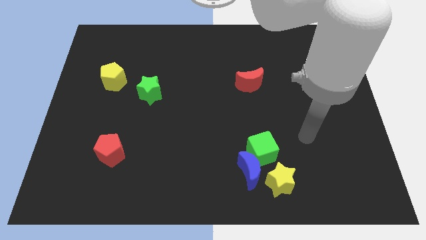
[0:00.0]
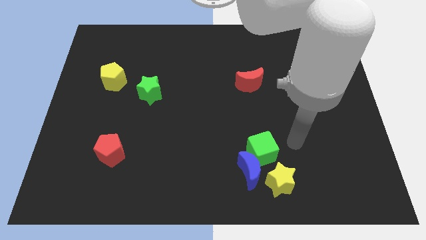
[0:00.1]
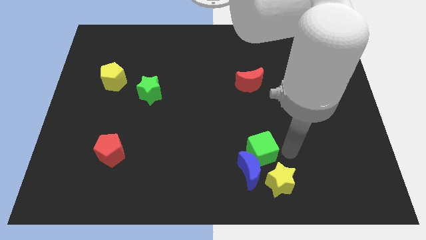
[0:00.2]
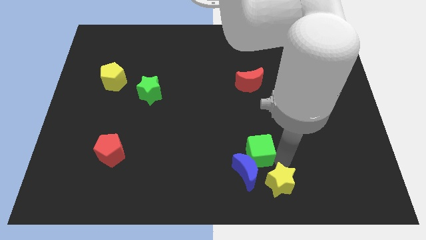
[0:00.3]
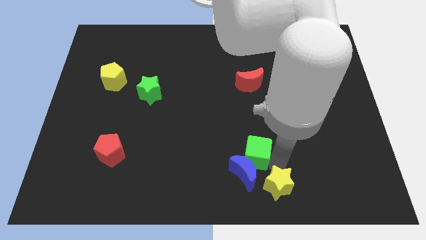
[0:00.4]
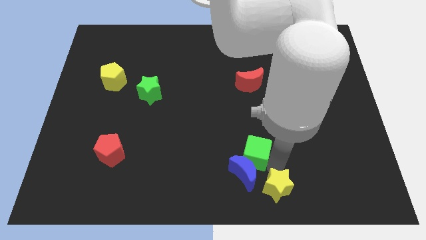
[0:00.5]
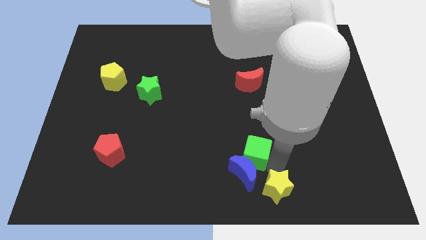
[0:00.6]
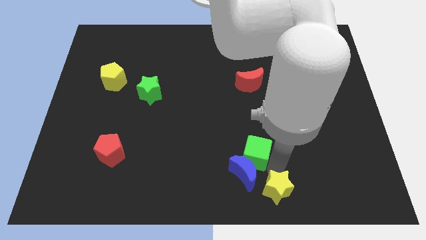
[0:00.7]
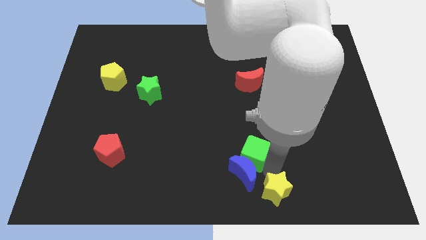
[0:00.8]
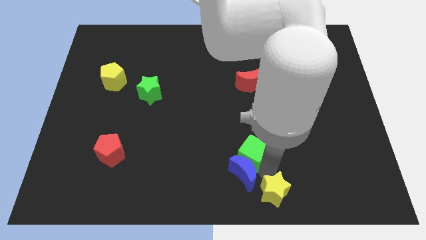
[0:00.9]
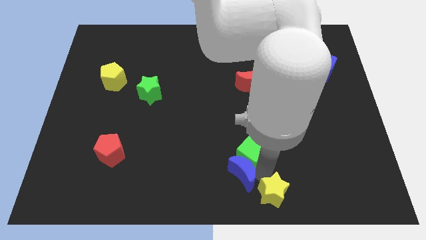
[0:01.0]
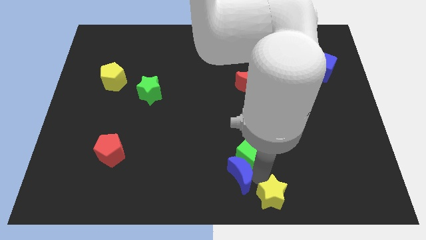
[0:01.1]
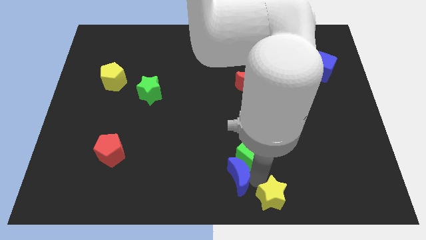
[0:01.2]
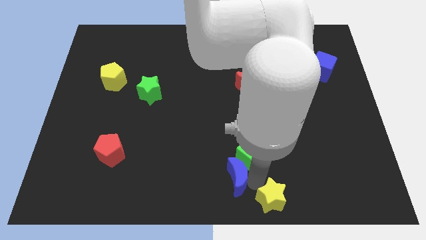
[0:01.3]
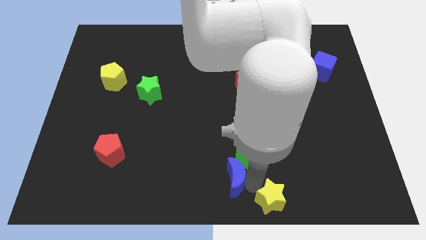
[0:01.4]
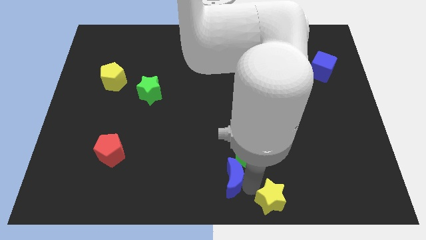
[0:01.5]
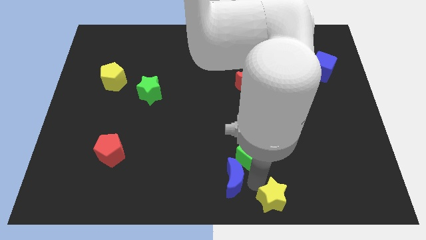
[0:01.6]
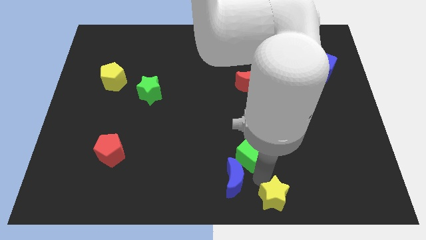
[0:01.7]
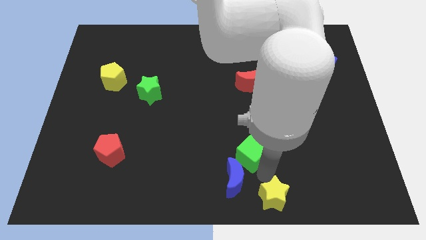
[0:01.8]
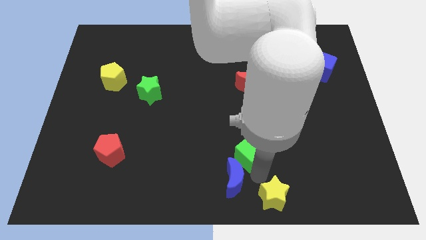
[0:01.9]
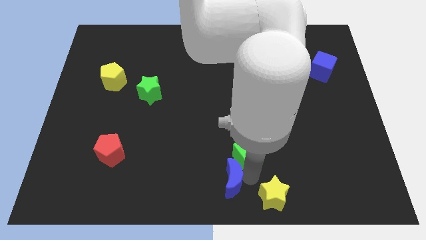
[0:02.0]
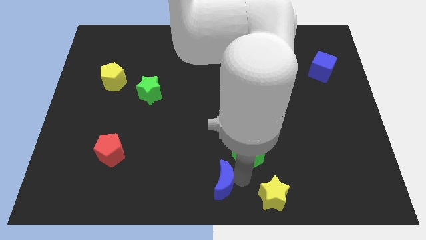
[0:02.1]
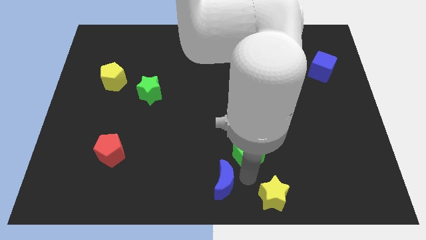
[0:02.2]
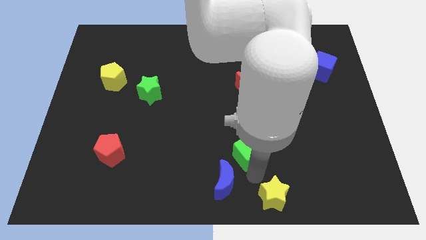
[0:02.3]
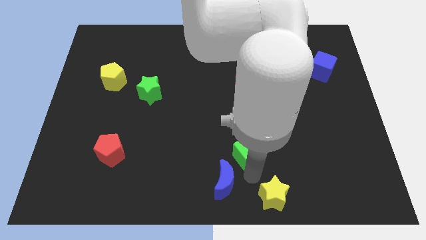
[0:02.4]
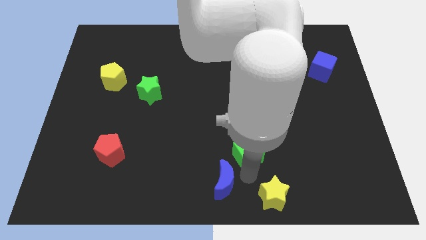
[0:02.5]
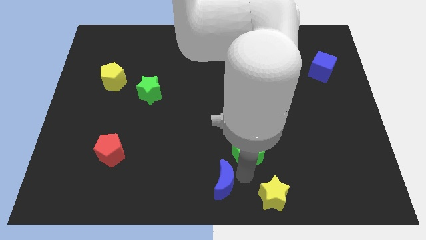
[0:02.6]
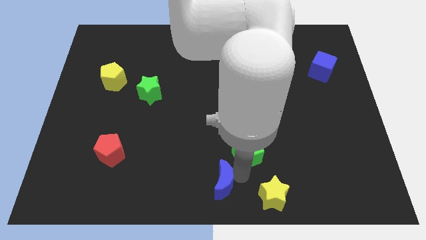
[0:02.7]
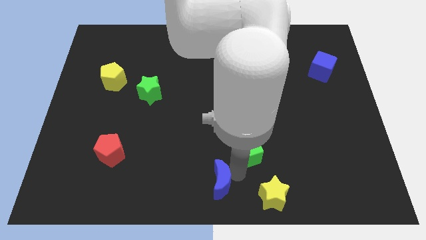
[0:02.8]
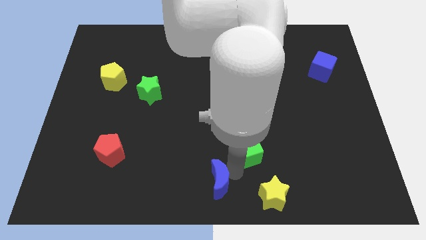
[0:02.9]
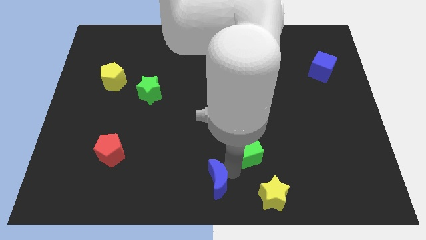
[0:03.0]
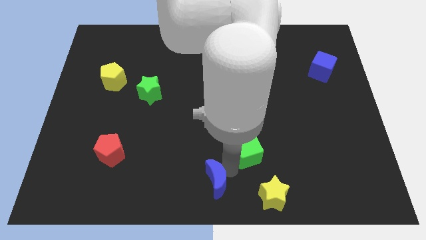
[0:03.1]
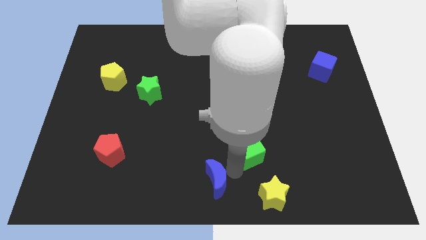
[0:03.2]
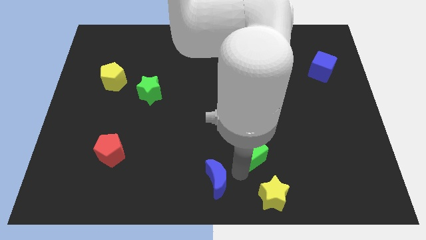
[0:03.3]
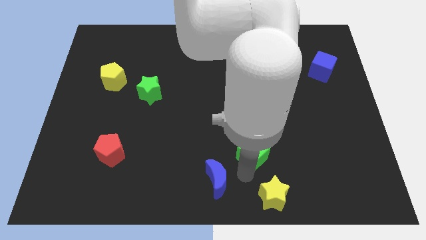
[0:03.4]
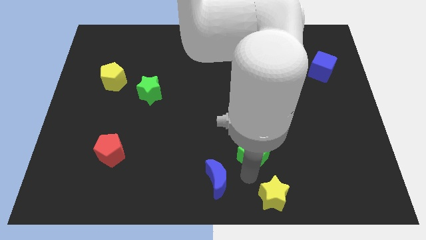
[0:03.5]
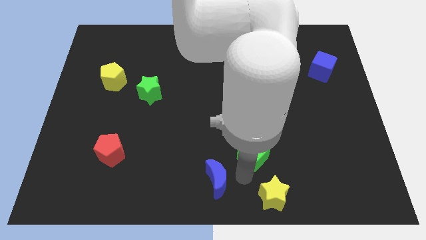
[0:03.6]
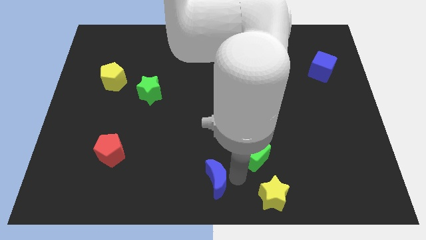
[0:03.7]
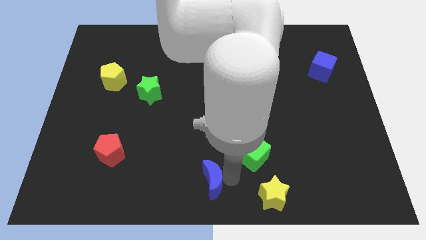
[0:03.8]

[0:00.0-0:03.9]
pull the blue moon apart from the green cube and yellow star

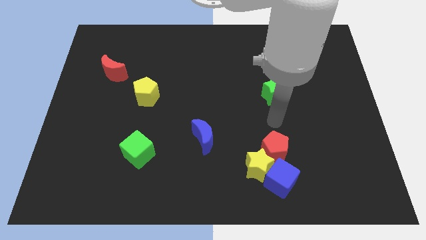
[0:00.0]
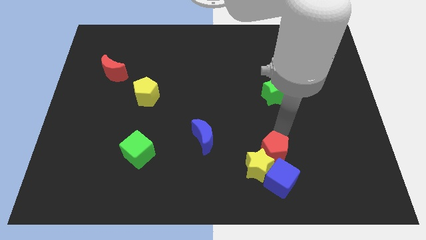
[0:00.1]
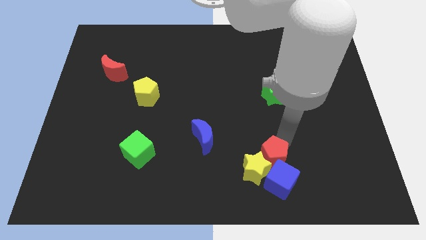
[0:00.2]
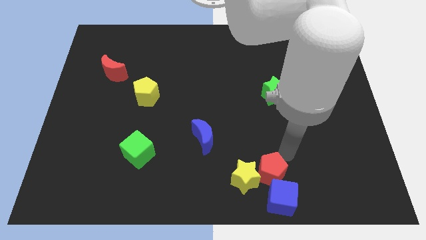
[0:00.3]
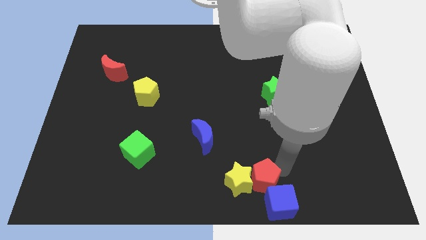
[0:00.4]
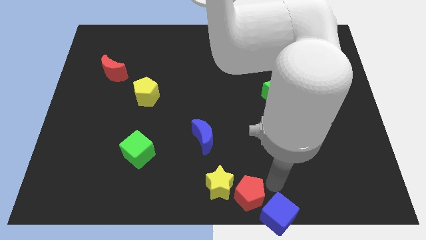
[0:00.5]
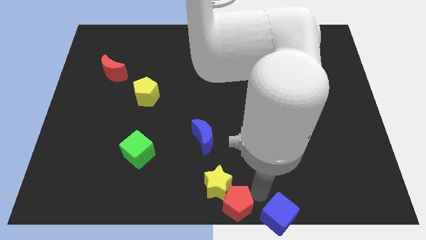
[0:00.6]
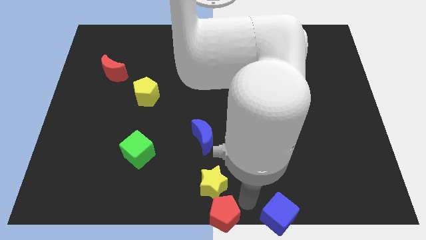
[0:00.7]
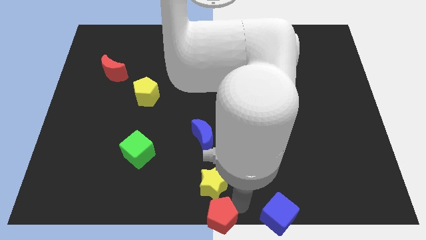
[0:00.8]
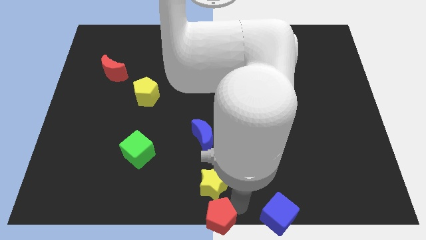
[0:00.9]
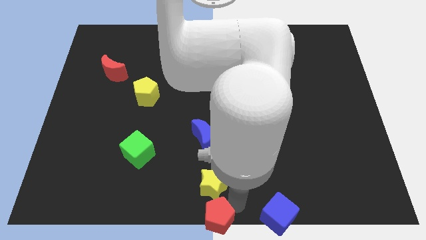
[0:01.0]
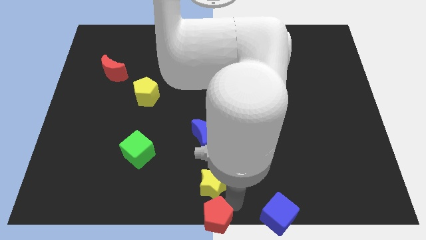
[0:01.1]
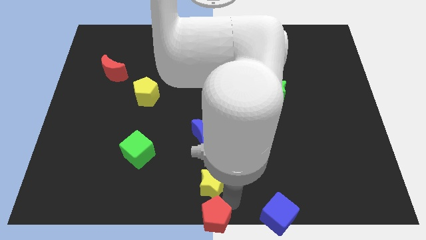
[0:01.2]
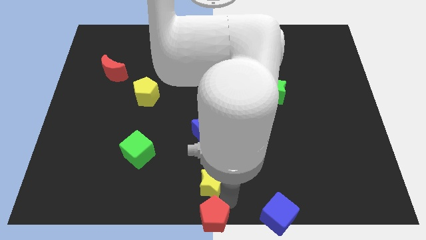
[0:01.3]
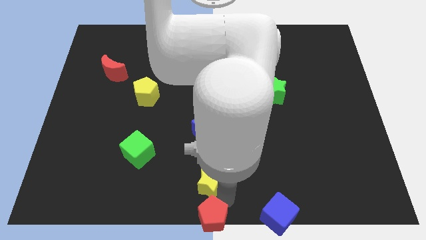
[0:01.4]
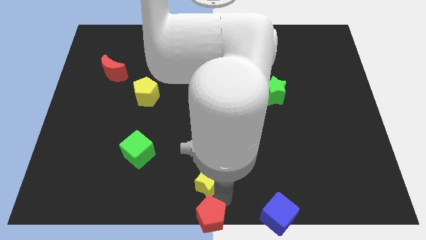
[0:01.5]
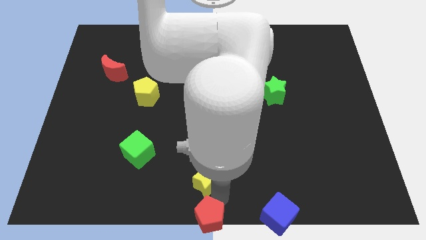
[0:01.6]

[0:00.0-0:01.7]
separate the yellow star from the blue cube and red pentagon

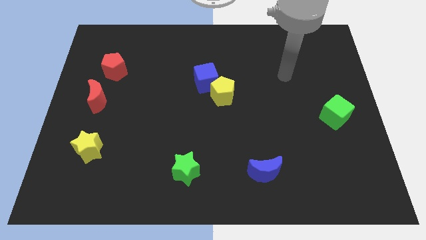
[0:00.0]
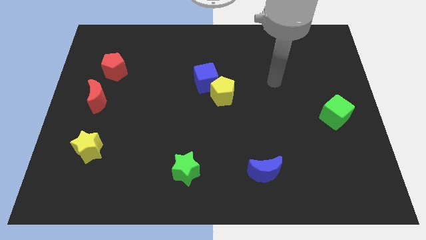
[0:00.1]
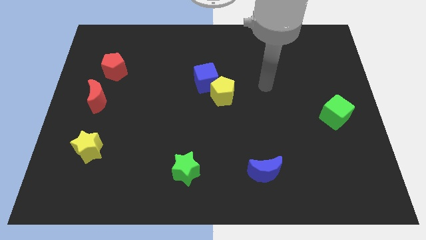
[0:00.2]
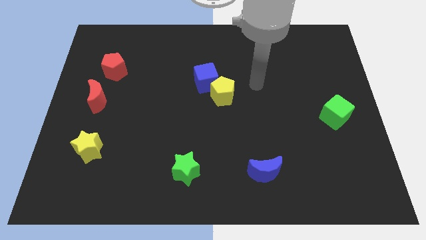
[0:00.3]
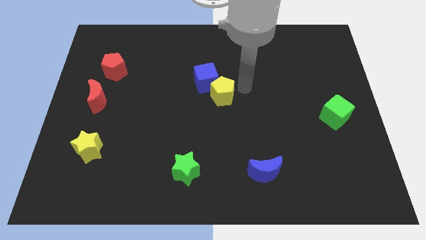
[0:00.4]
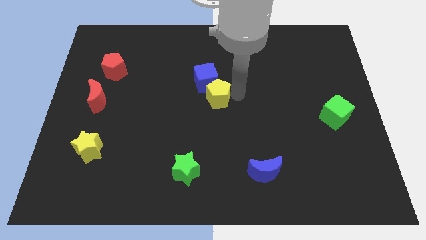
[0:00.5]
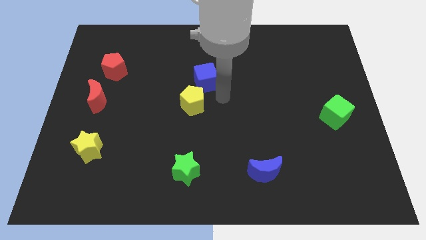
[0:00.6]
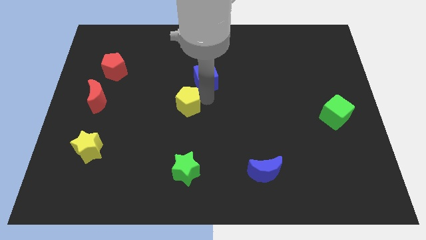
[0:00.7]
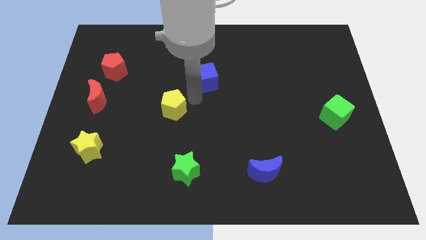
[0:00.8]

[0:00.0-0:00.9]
pull the blue cube apart from the yellow pentagon

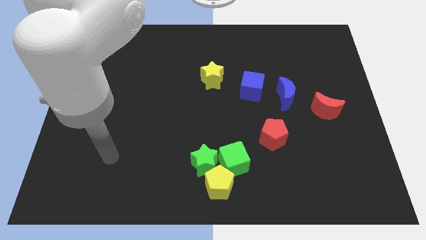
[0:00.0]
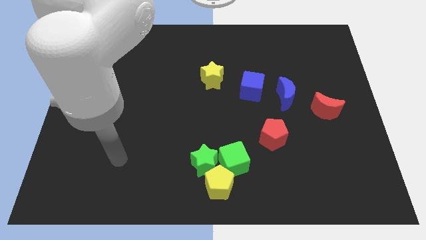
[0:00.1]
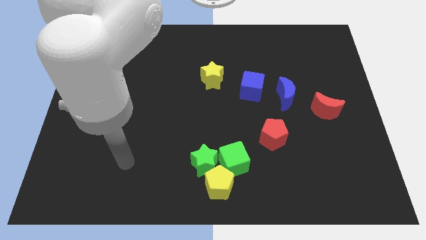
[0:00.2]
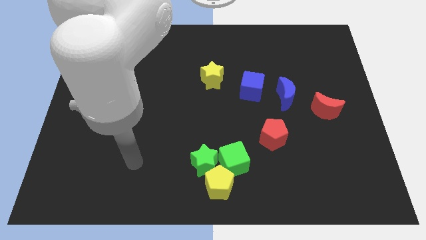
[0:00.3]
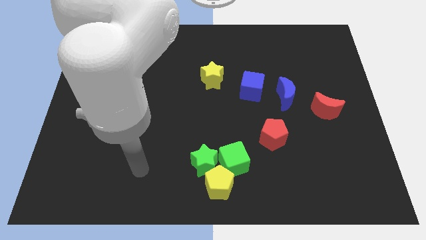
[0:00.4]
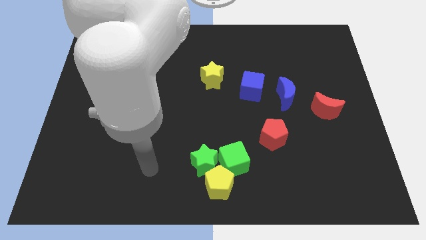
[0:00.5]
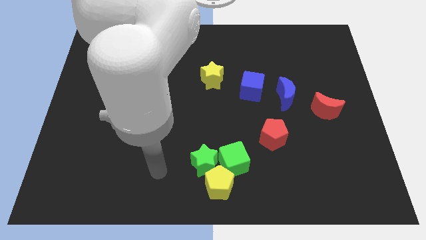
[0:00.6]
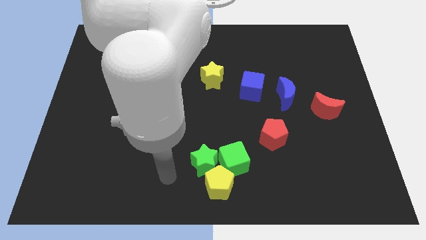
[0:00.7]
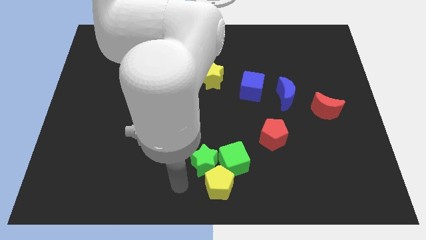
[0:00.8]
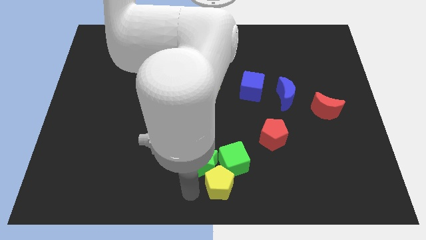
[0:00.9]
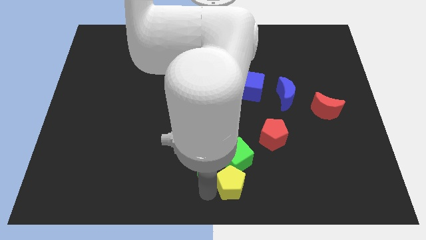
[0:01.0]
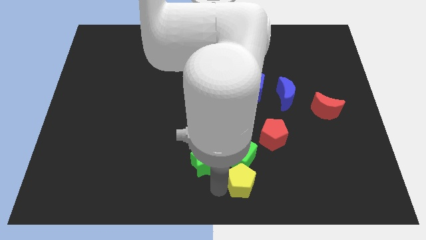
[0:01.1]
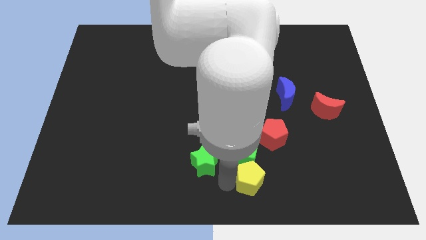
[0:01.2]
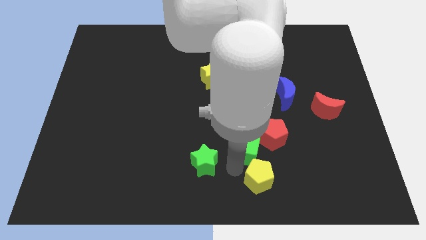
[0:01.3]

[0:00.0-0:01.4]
move the green star away from the yellow pentagon and green cube

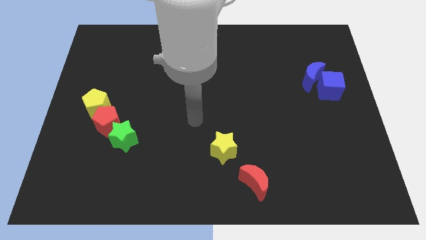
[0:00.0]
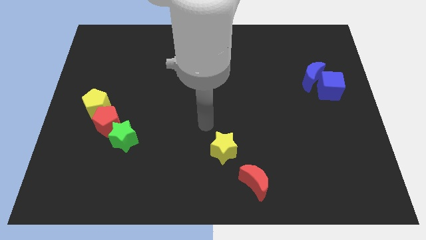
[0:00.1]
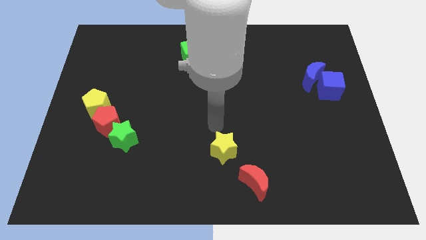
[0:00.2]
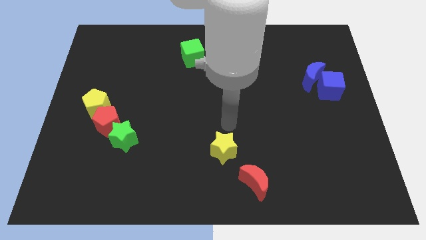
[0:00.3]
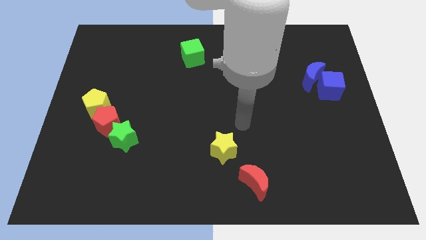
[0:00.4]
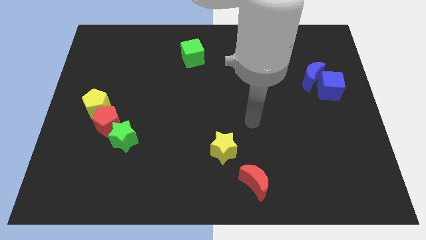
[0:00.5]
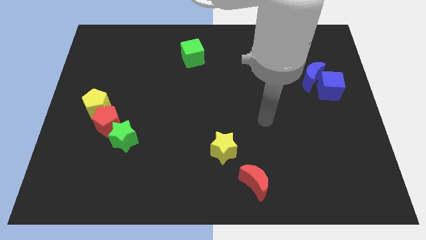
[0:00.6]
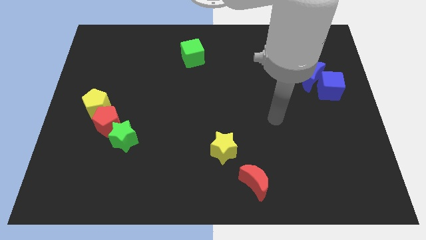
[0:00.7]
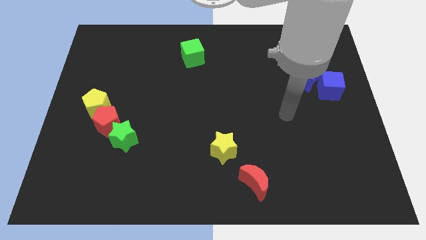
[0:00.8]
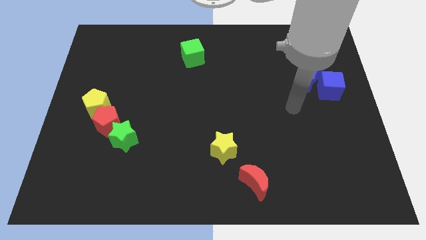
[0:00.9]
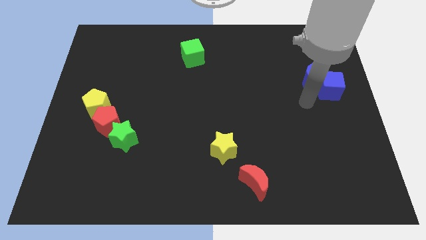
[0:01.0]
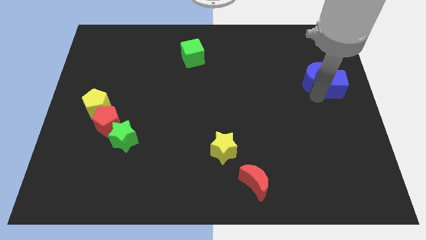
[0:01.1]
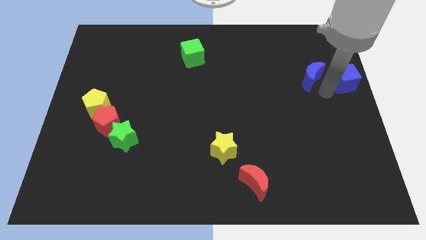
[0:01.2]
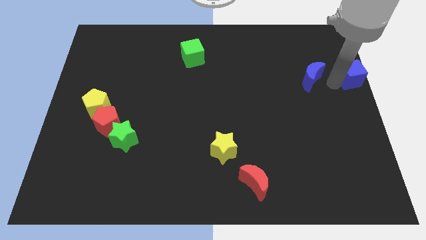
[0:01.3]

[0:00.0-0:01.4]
pull the blue moon apart from the blue cube

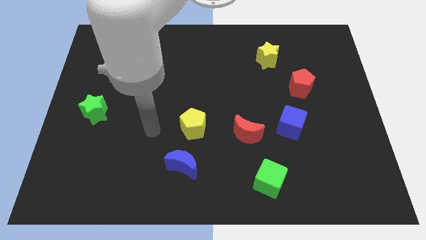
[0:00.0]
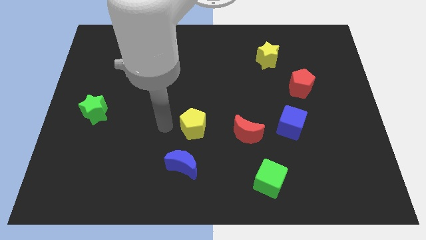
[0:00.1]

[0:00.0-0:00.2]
separate the blue moon from the yellow pentagon

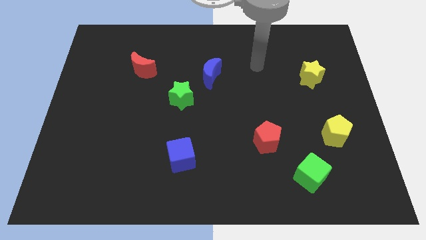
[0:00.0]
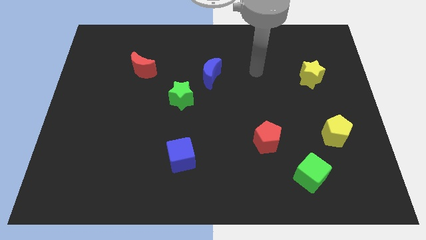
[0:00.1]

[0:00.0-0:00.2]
pull the blue moon apart from the green star
